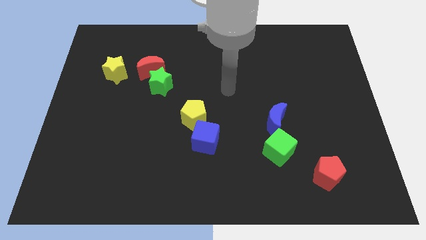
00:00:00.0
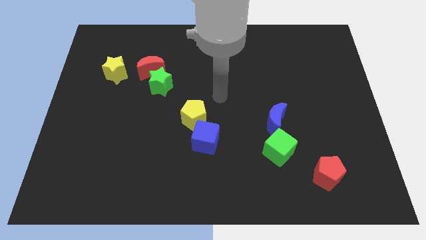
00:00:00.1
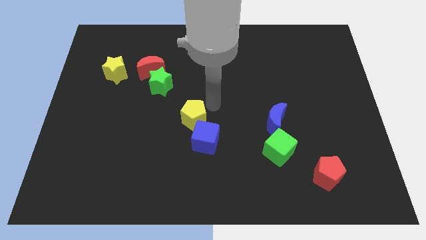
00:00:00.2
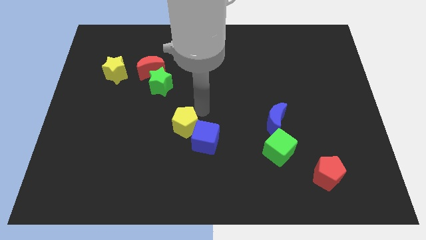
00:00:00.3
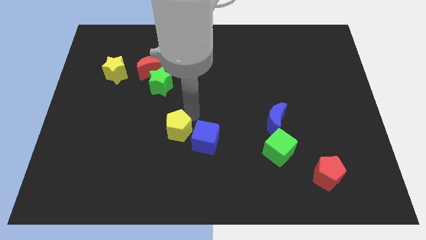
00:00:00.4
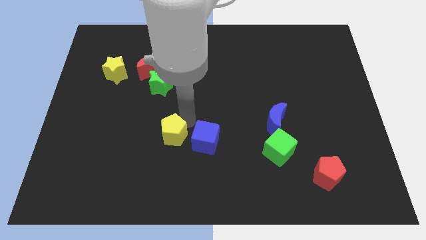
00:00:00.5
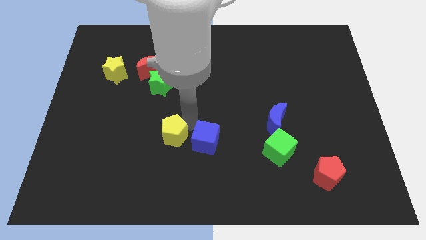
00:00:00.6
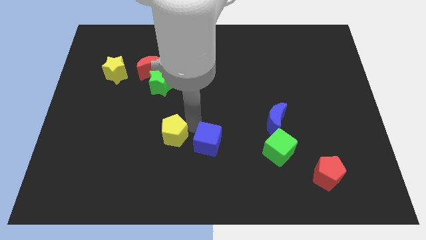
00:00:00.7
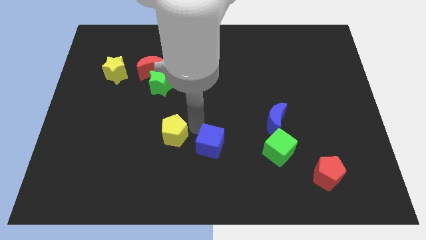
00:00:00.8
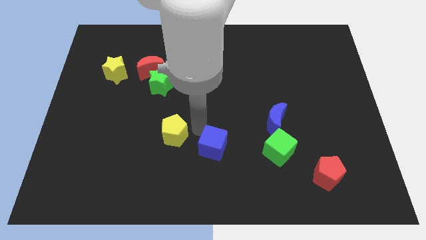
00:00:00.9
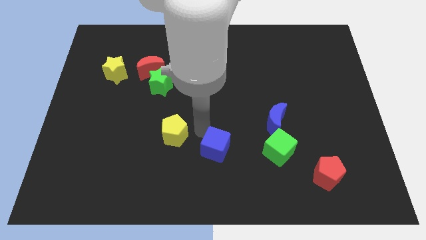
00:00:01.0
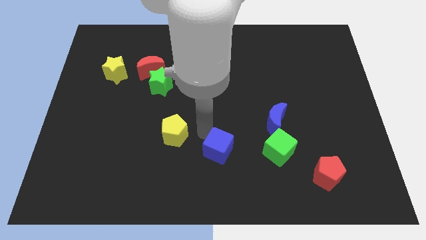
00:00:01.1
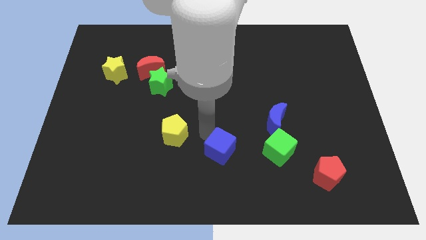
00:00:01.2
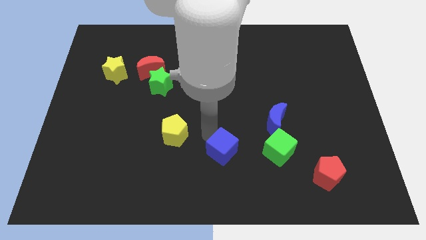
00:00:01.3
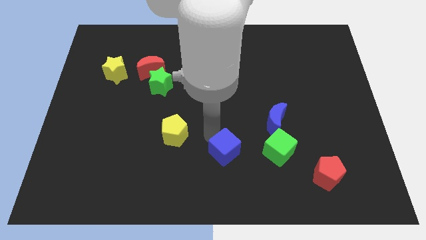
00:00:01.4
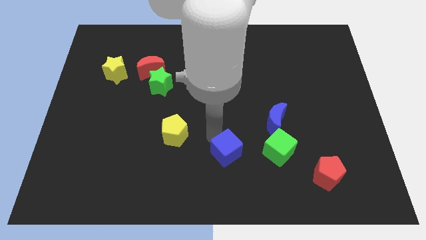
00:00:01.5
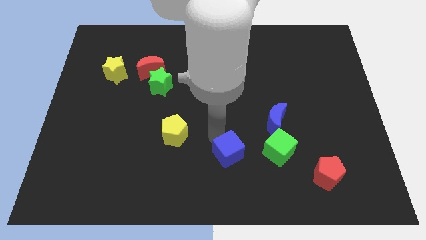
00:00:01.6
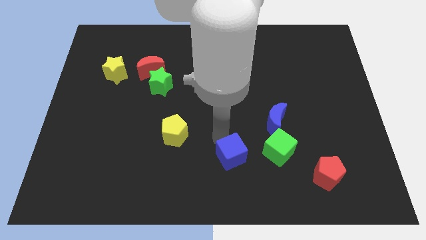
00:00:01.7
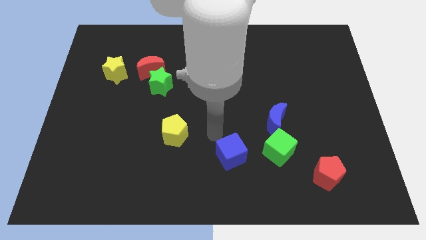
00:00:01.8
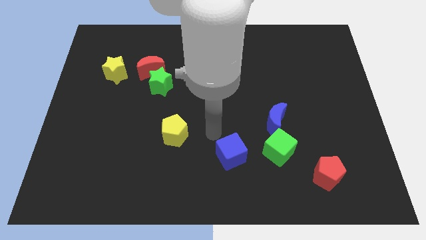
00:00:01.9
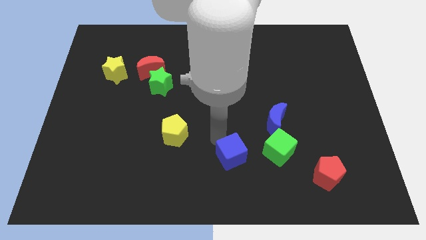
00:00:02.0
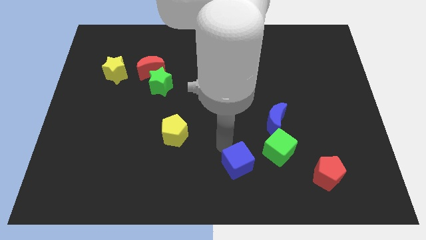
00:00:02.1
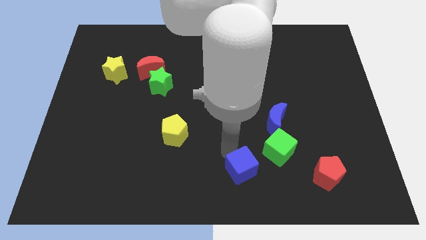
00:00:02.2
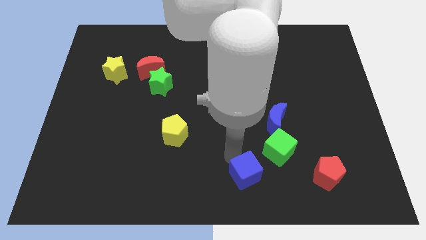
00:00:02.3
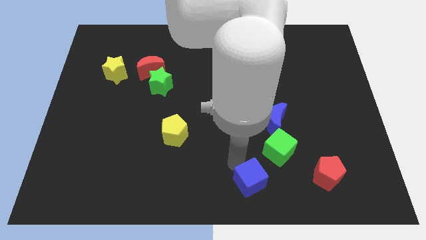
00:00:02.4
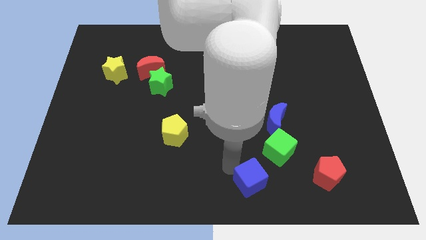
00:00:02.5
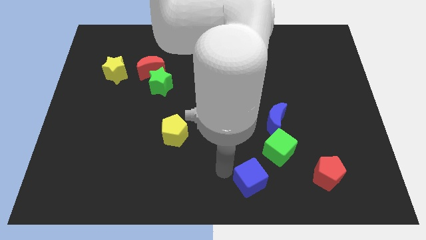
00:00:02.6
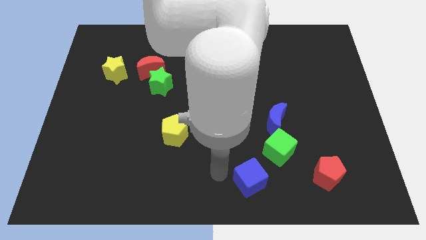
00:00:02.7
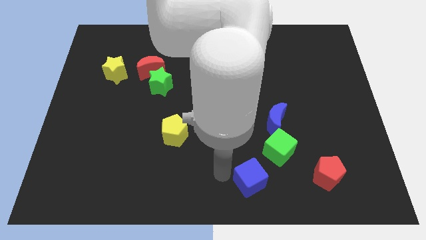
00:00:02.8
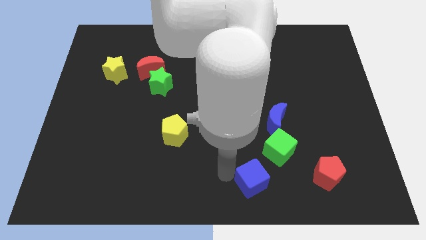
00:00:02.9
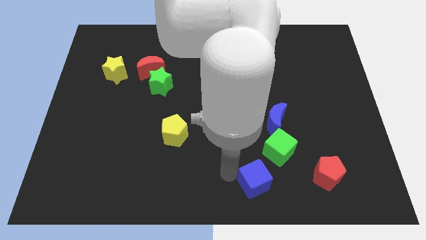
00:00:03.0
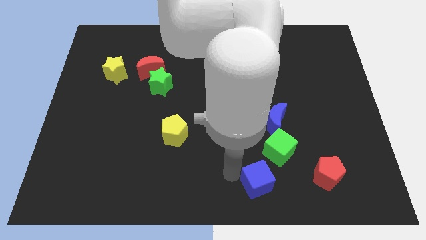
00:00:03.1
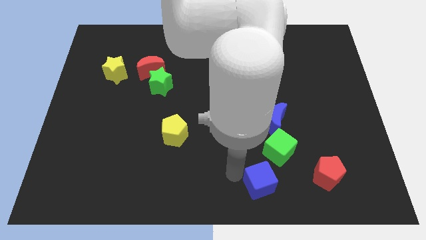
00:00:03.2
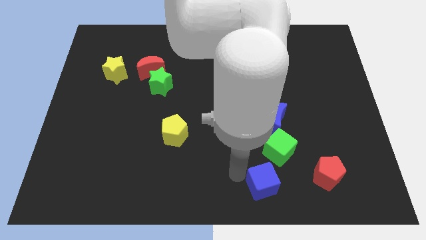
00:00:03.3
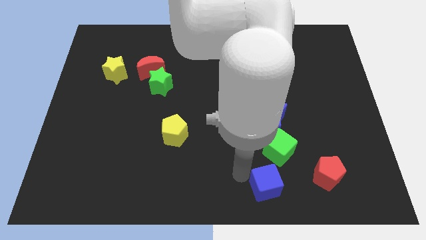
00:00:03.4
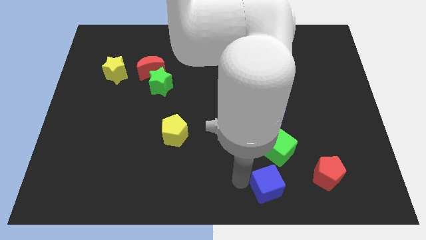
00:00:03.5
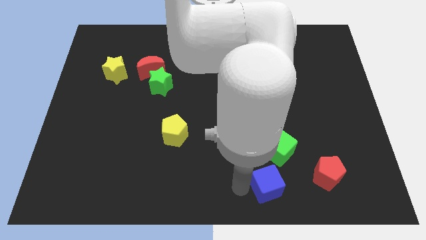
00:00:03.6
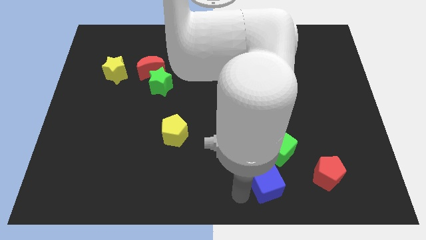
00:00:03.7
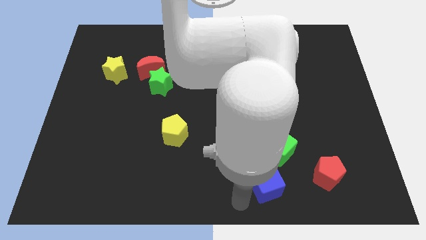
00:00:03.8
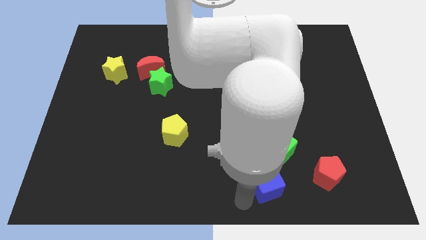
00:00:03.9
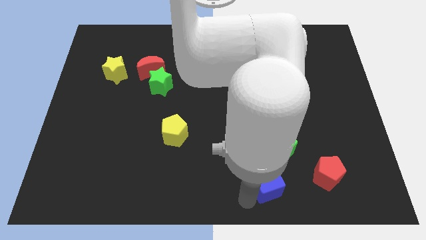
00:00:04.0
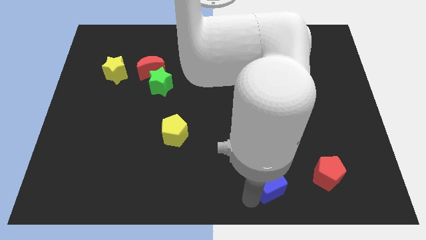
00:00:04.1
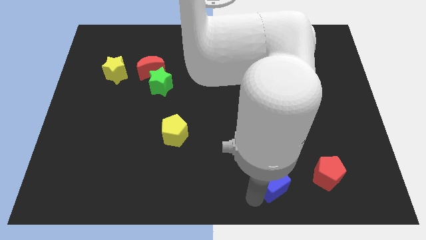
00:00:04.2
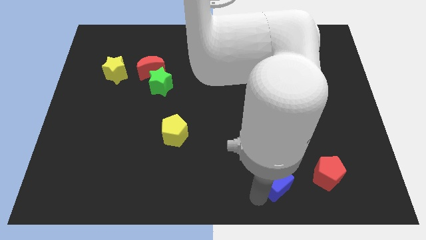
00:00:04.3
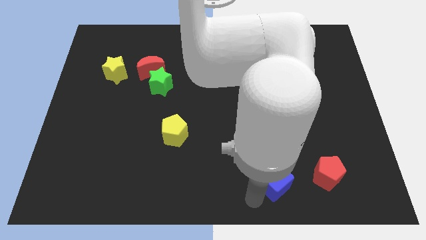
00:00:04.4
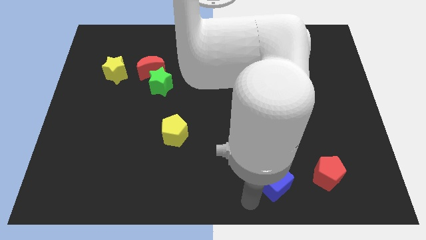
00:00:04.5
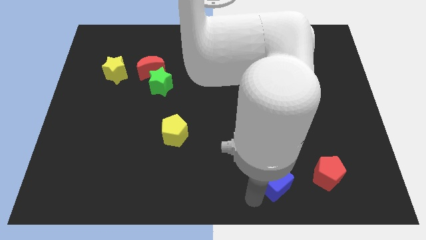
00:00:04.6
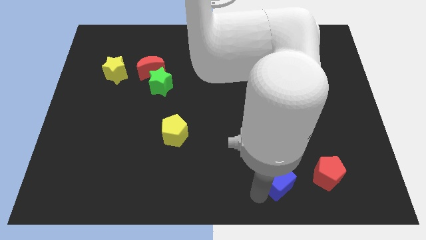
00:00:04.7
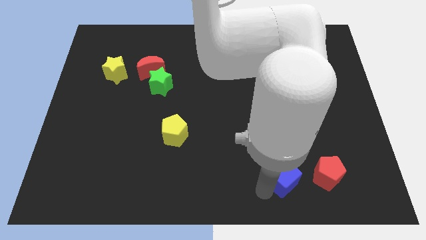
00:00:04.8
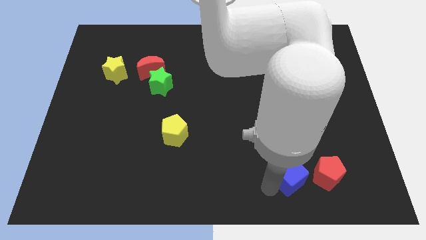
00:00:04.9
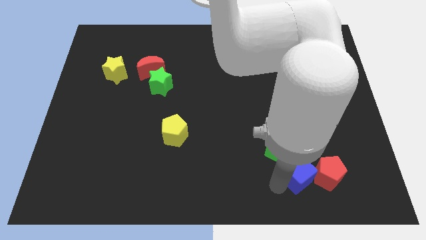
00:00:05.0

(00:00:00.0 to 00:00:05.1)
put the blue cube to the top left side of the red pentagon

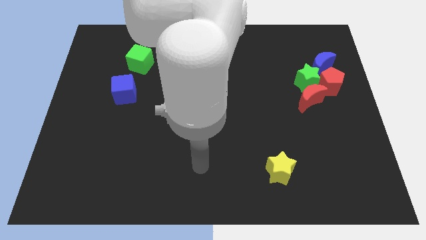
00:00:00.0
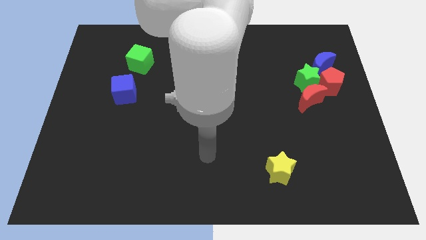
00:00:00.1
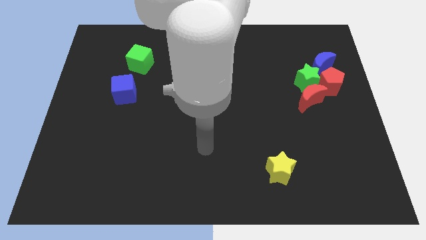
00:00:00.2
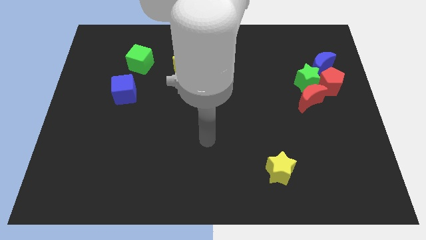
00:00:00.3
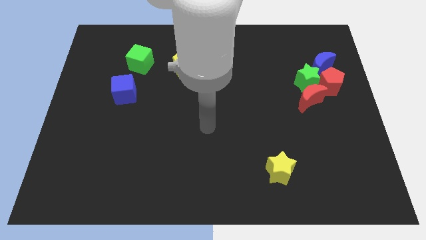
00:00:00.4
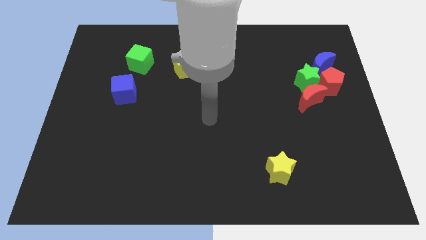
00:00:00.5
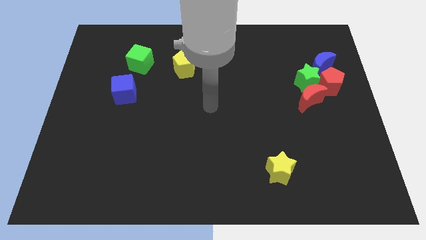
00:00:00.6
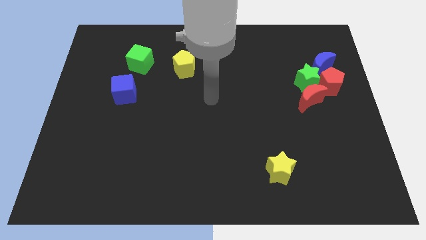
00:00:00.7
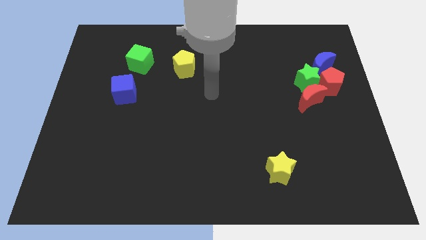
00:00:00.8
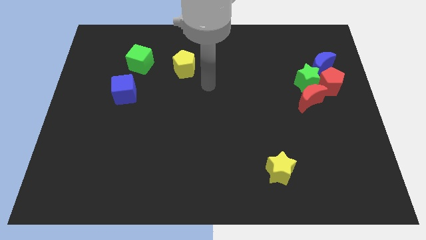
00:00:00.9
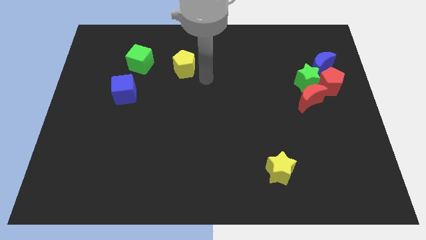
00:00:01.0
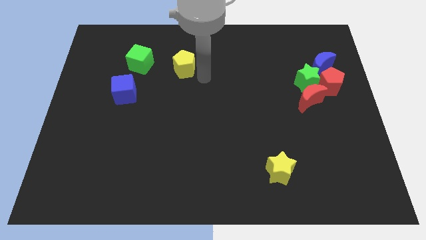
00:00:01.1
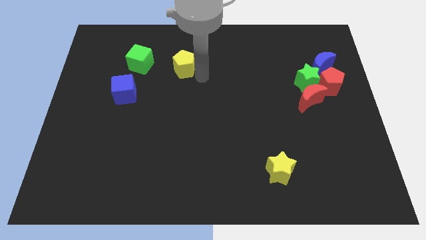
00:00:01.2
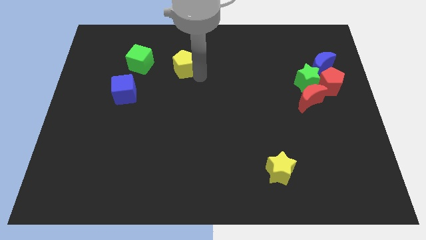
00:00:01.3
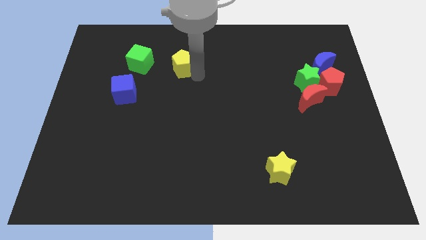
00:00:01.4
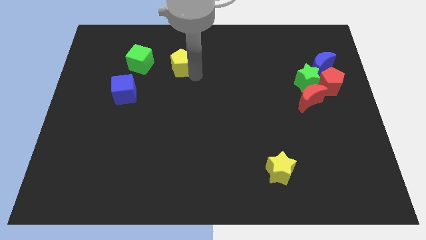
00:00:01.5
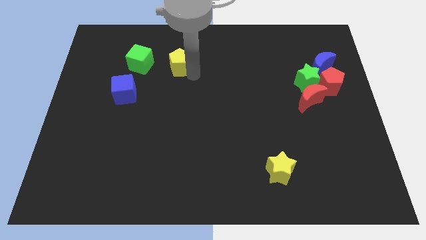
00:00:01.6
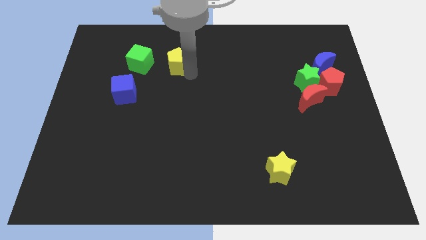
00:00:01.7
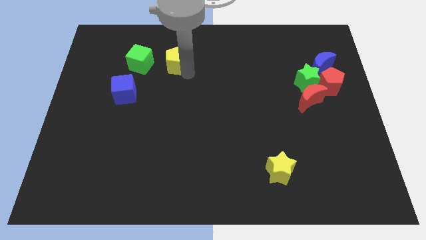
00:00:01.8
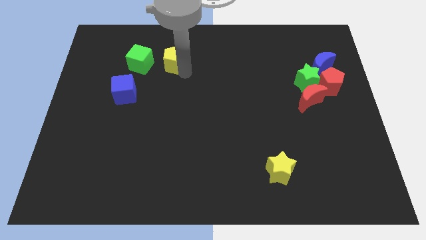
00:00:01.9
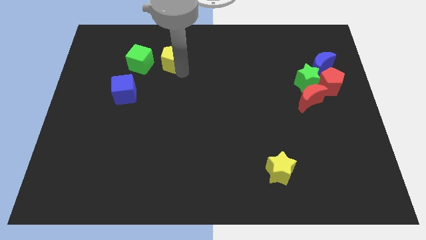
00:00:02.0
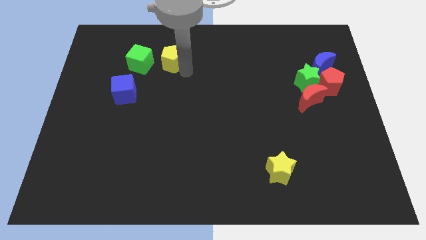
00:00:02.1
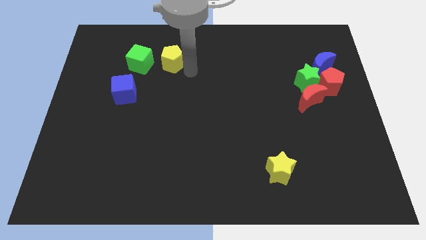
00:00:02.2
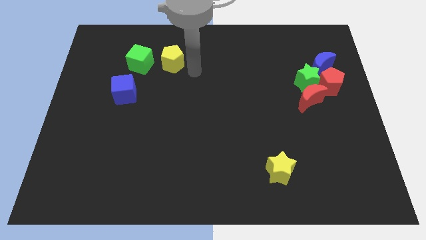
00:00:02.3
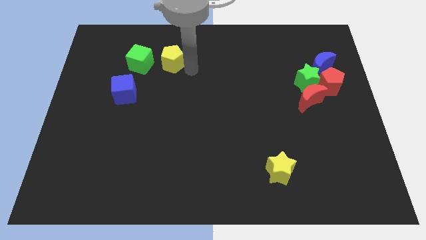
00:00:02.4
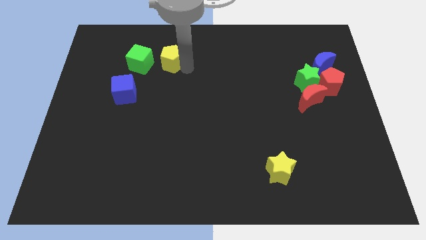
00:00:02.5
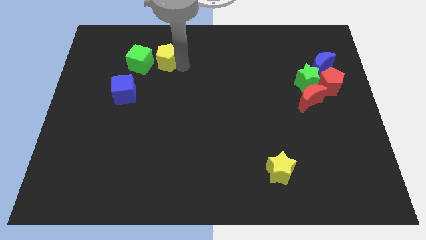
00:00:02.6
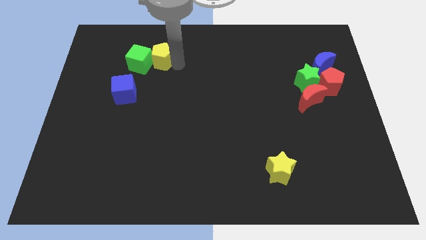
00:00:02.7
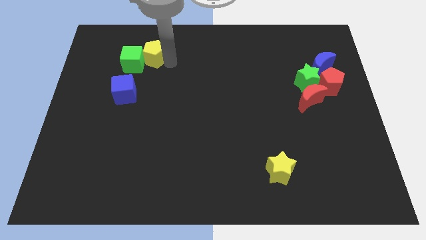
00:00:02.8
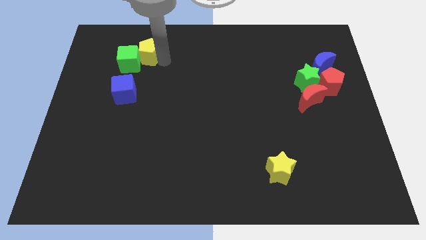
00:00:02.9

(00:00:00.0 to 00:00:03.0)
put the yellow pentagon above the blue cube
